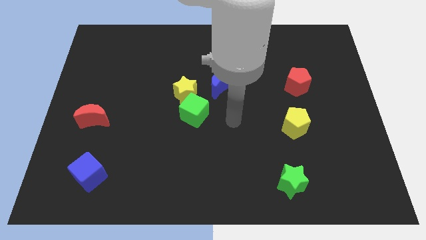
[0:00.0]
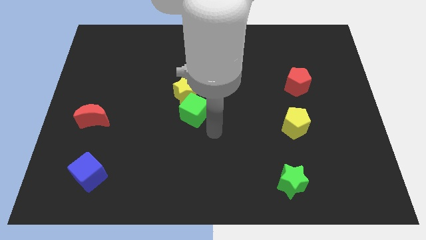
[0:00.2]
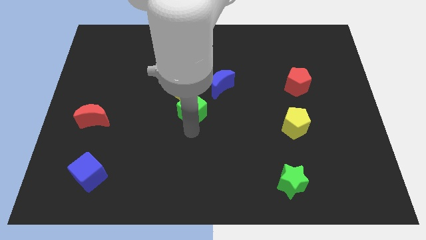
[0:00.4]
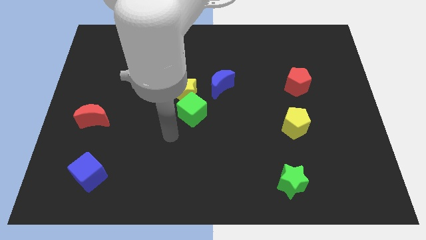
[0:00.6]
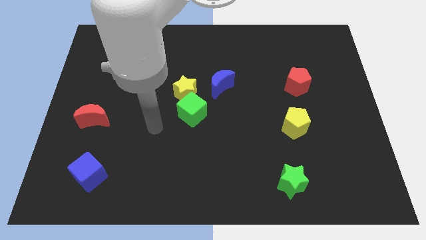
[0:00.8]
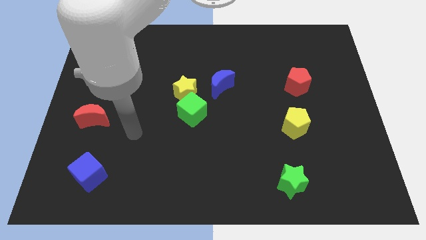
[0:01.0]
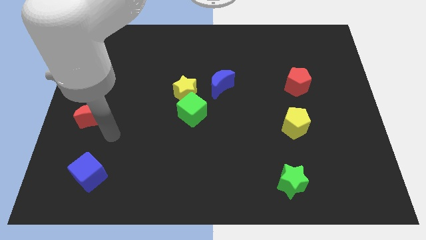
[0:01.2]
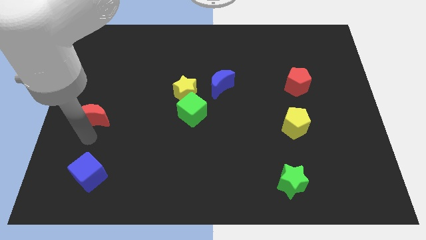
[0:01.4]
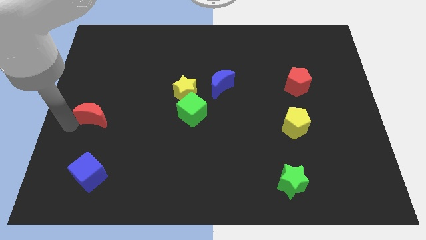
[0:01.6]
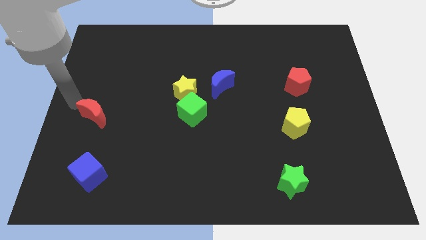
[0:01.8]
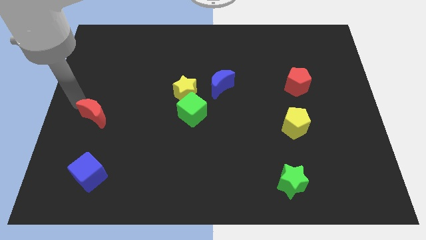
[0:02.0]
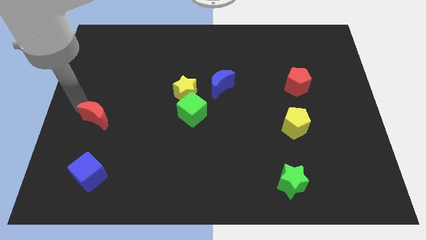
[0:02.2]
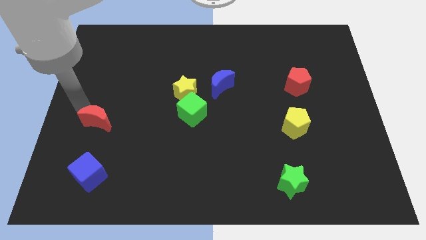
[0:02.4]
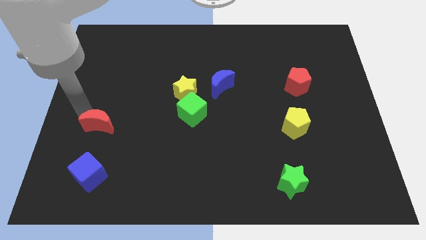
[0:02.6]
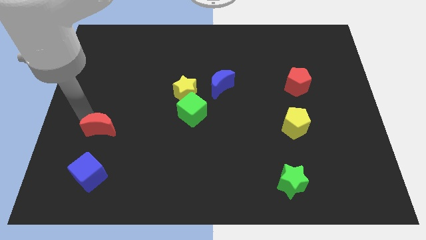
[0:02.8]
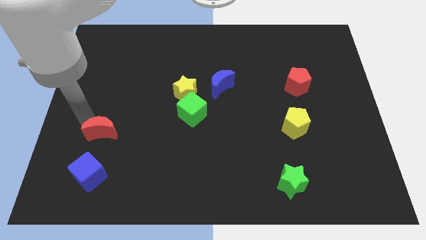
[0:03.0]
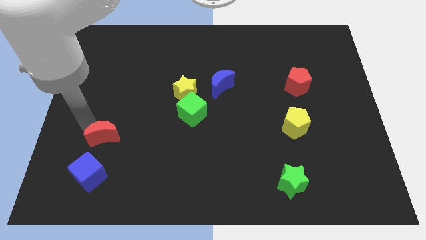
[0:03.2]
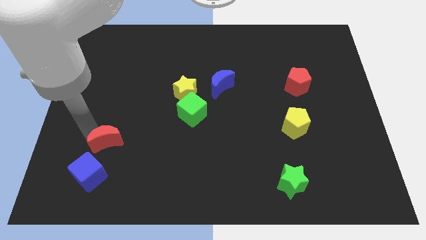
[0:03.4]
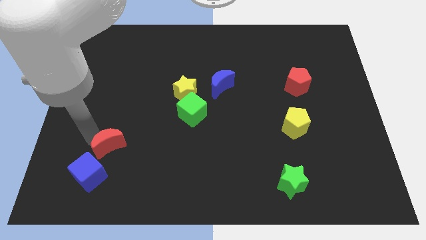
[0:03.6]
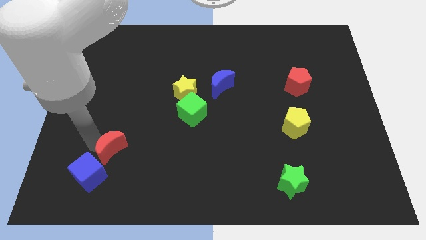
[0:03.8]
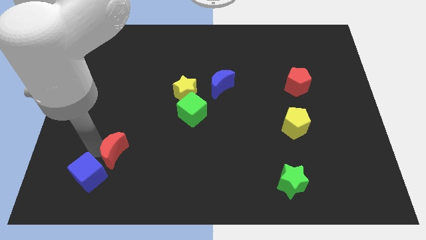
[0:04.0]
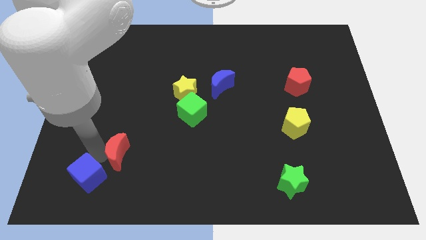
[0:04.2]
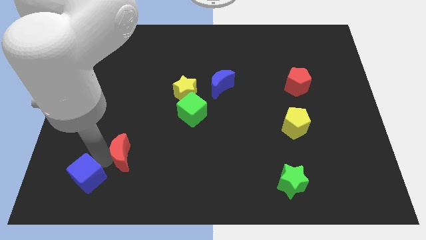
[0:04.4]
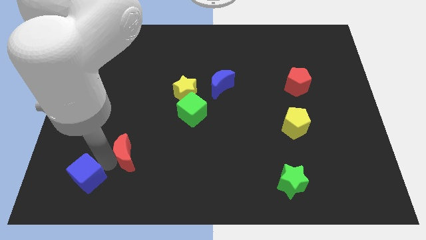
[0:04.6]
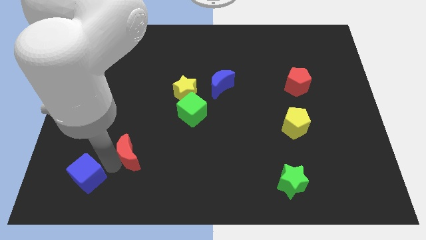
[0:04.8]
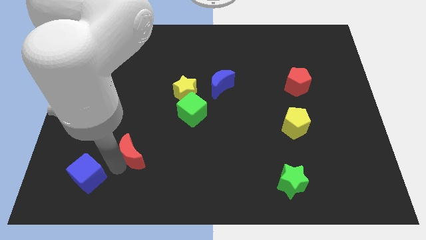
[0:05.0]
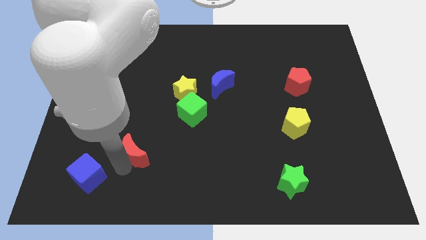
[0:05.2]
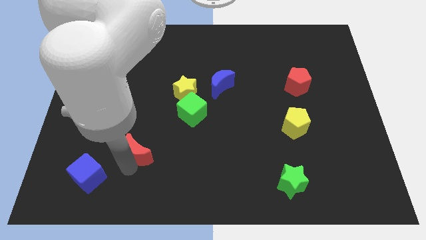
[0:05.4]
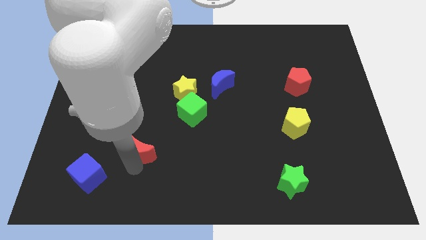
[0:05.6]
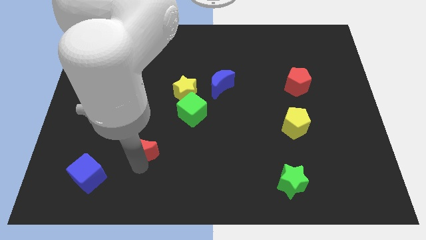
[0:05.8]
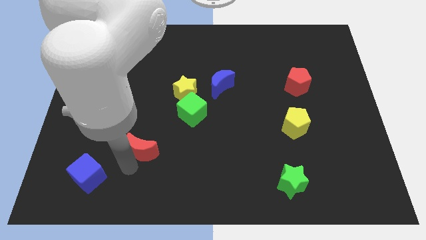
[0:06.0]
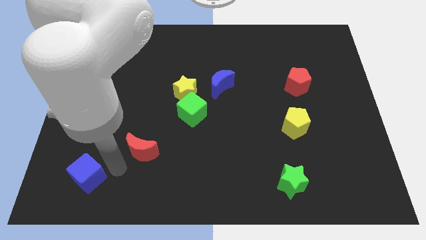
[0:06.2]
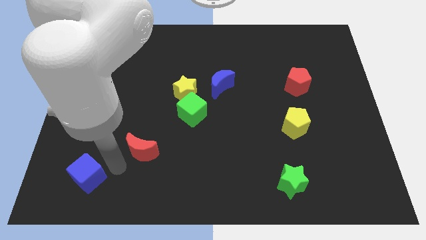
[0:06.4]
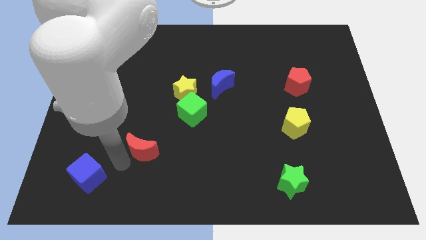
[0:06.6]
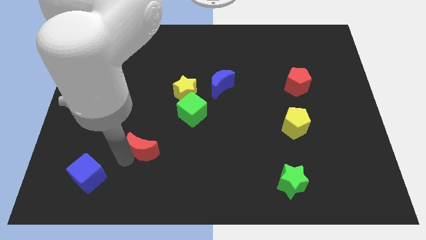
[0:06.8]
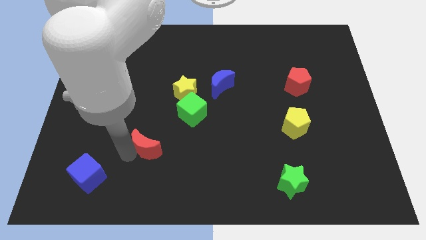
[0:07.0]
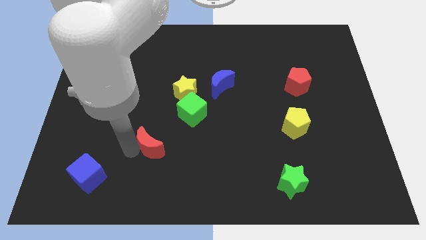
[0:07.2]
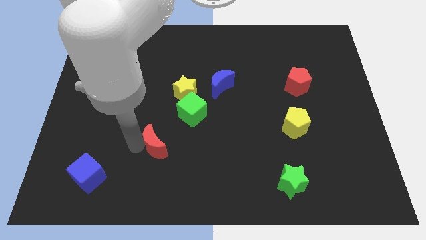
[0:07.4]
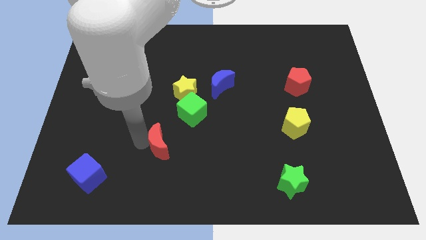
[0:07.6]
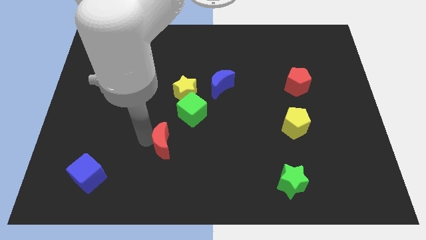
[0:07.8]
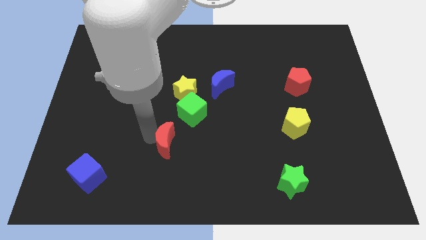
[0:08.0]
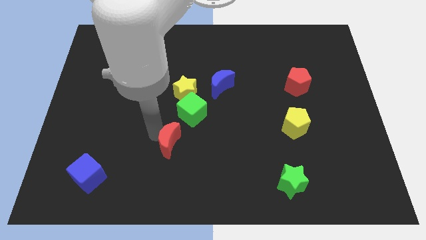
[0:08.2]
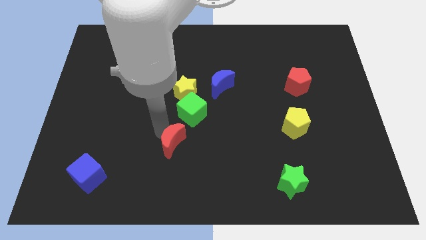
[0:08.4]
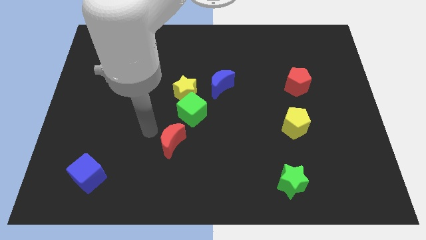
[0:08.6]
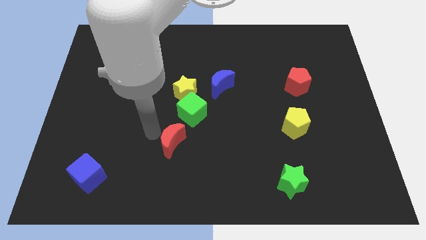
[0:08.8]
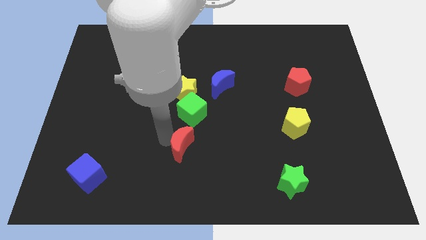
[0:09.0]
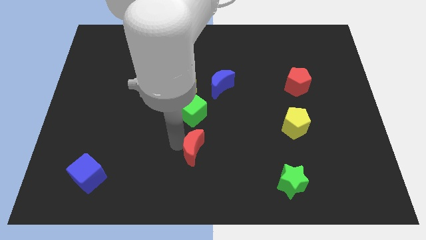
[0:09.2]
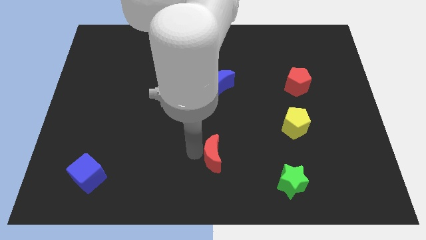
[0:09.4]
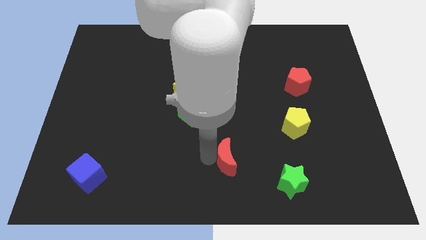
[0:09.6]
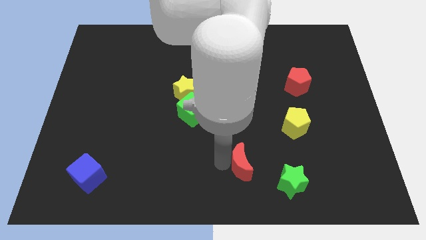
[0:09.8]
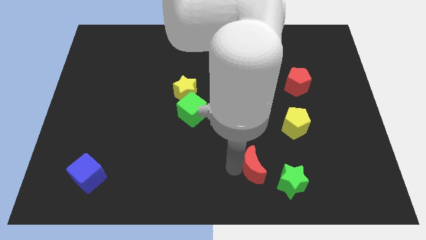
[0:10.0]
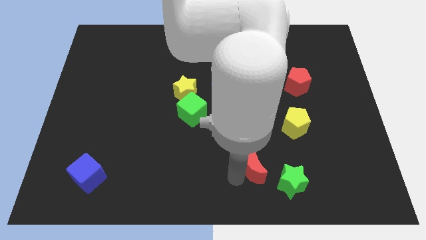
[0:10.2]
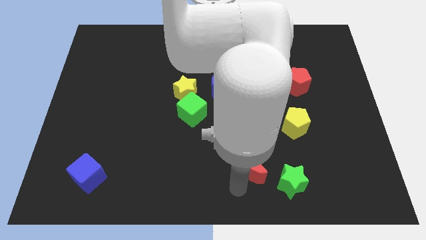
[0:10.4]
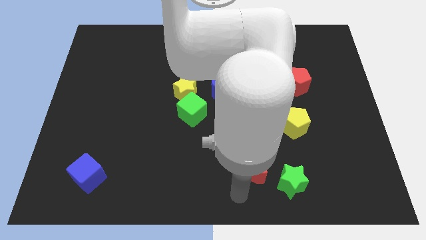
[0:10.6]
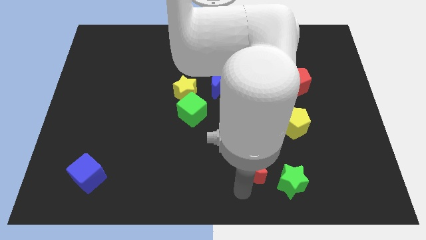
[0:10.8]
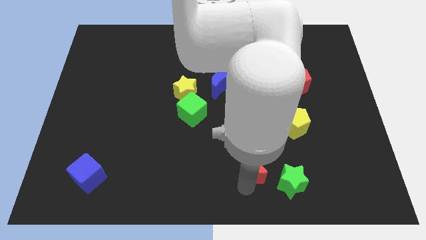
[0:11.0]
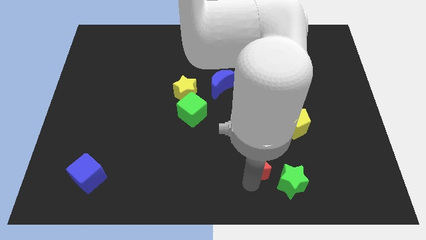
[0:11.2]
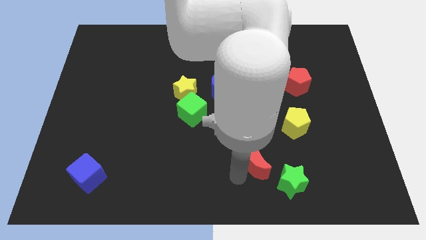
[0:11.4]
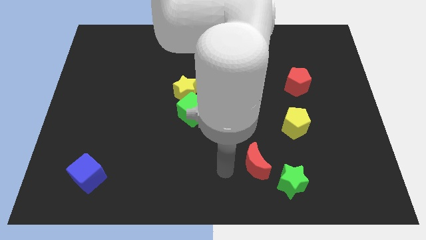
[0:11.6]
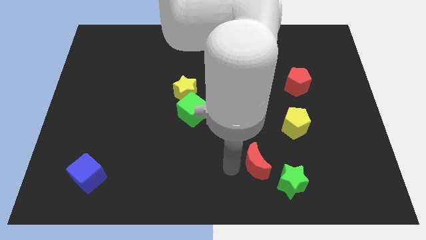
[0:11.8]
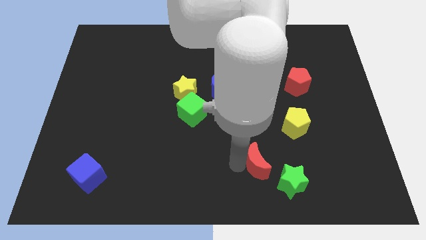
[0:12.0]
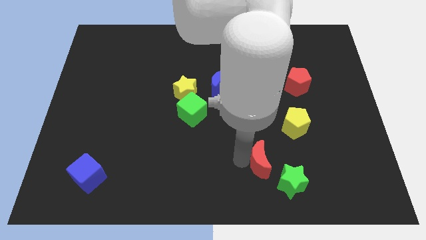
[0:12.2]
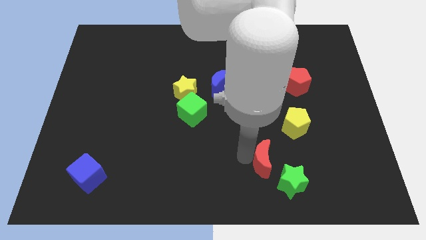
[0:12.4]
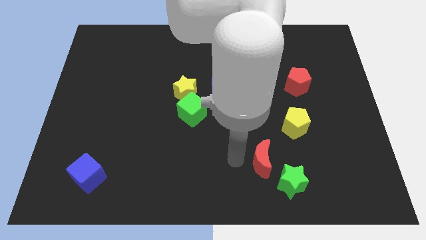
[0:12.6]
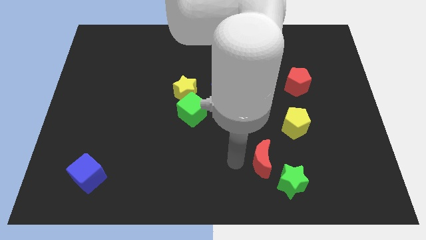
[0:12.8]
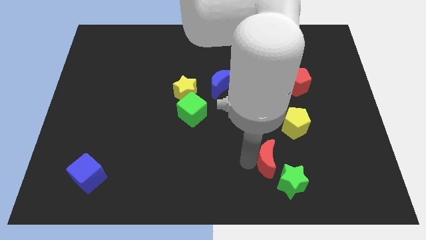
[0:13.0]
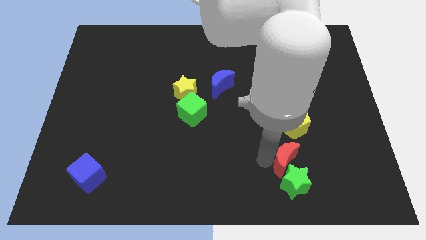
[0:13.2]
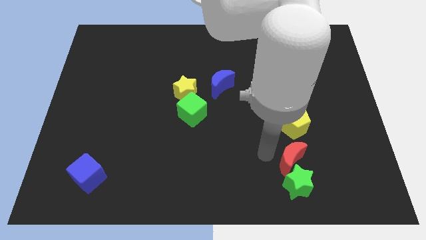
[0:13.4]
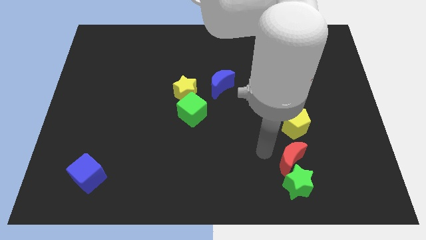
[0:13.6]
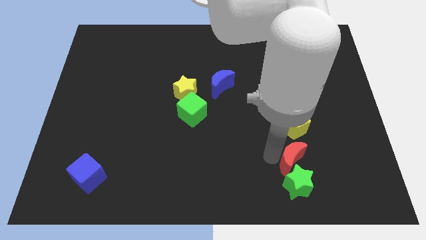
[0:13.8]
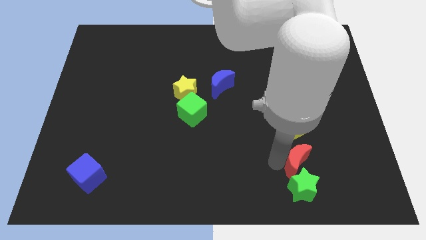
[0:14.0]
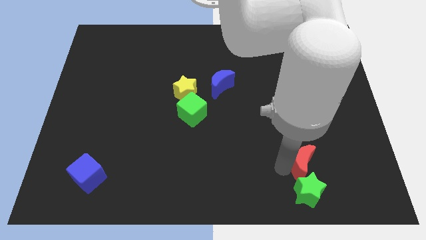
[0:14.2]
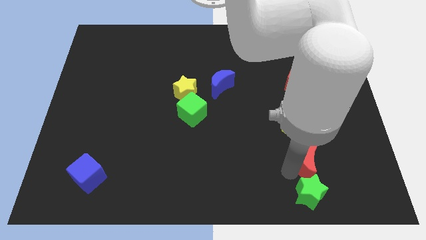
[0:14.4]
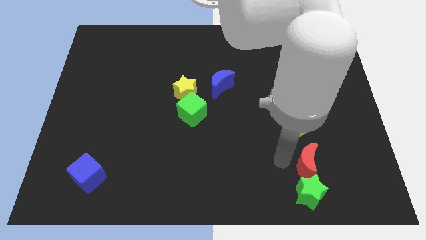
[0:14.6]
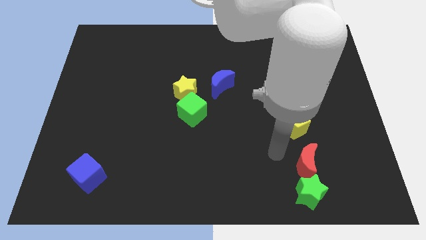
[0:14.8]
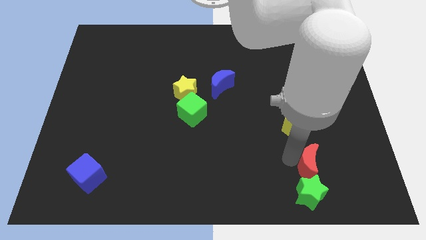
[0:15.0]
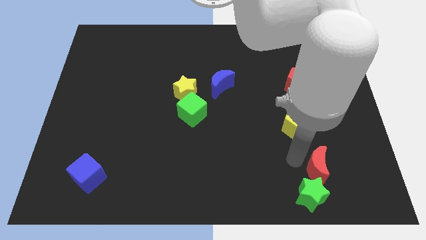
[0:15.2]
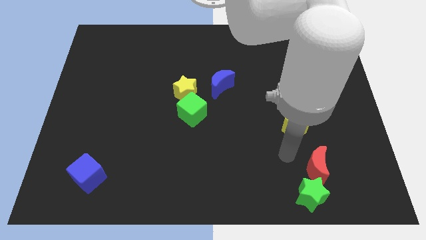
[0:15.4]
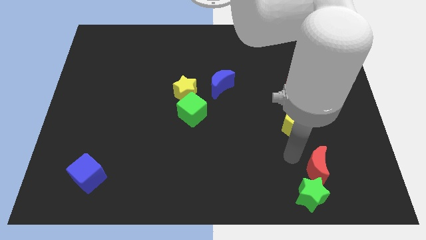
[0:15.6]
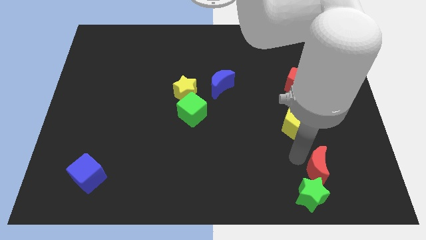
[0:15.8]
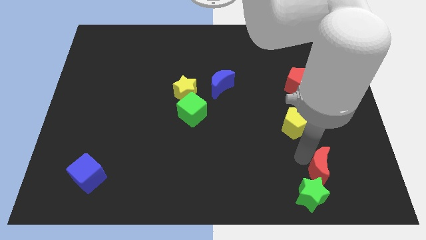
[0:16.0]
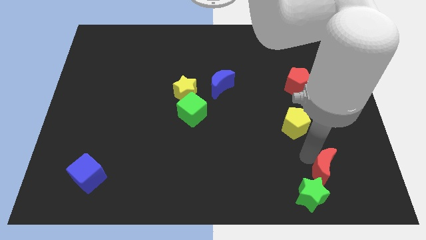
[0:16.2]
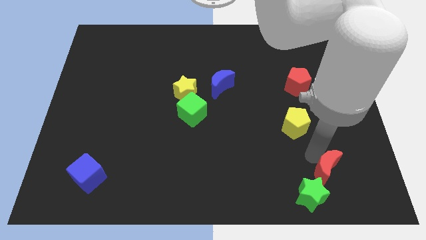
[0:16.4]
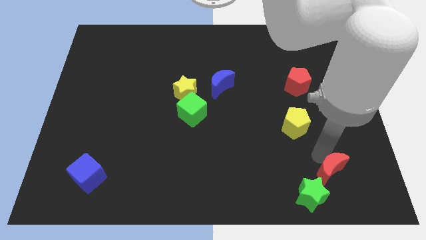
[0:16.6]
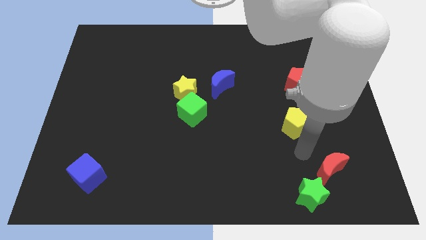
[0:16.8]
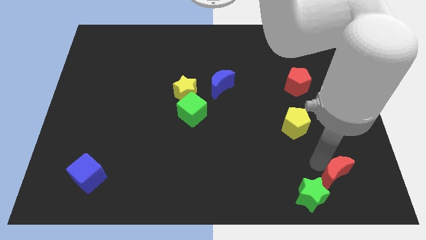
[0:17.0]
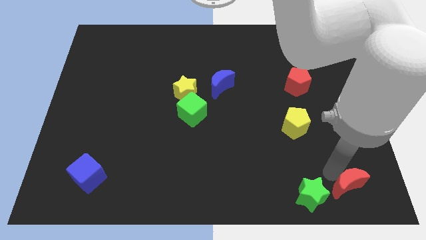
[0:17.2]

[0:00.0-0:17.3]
put the red moon to the bottom right of the board
